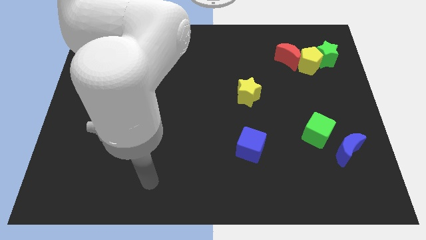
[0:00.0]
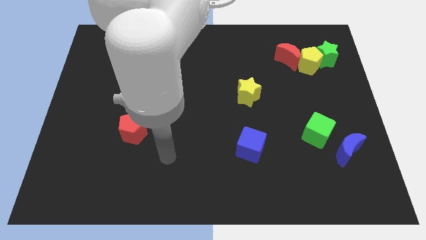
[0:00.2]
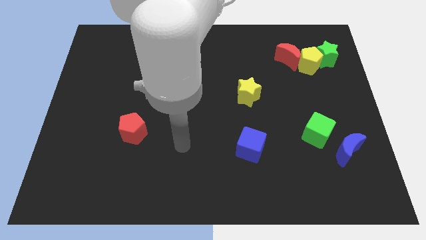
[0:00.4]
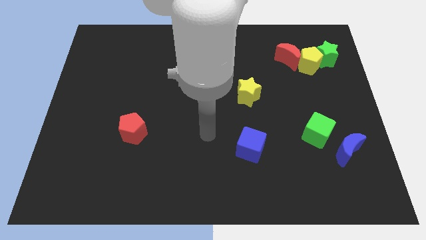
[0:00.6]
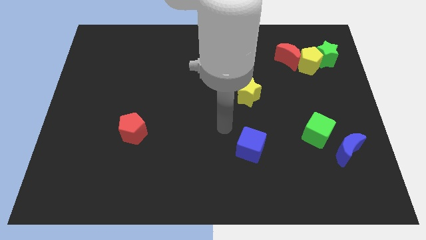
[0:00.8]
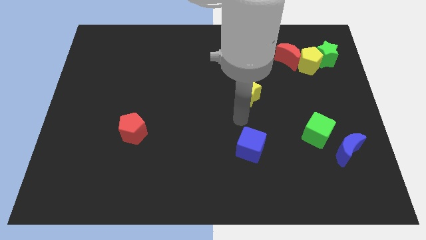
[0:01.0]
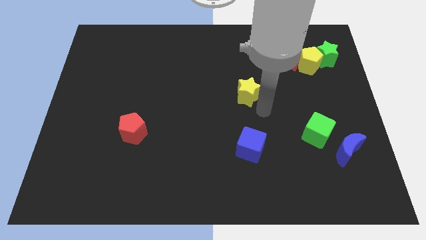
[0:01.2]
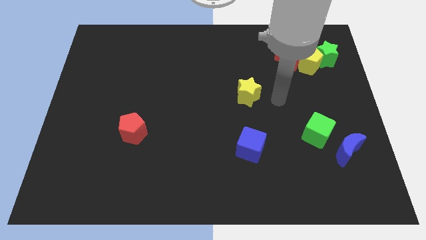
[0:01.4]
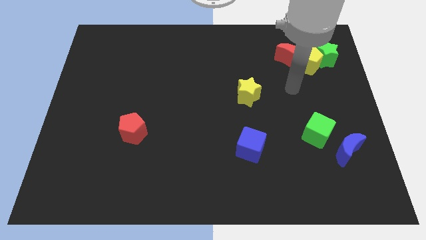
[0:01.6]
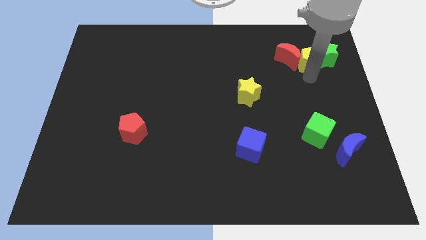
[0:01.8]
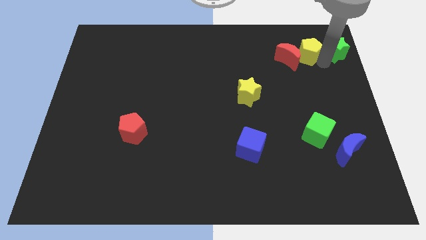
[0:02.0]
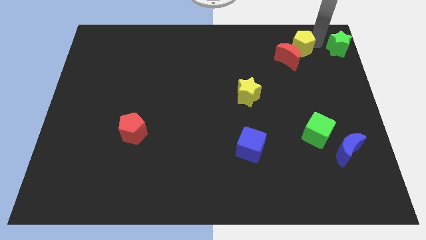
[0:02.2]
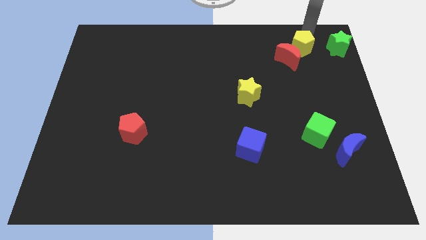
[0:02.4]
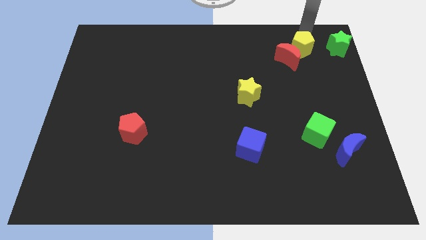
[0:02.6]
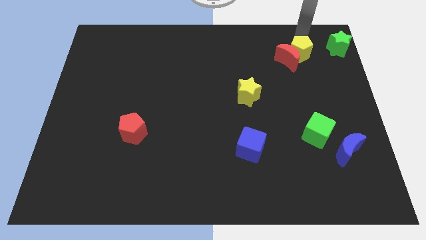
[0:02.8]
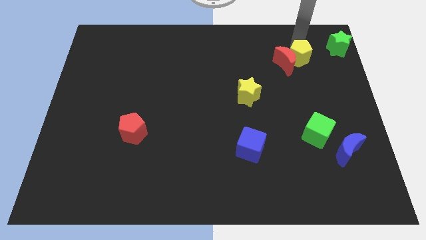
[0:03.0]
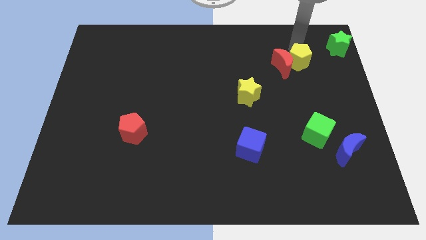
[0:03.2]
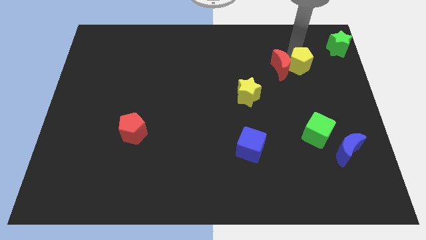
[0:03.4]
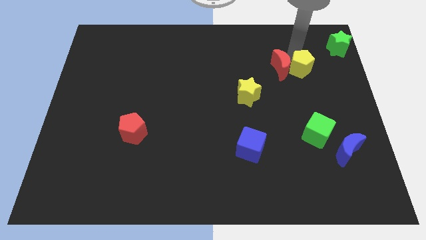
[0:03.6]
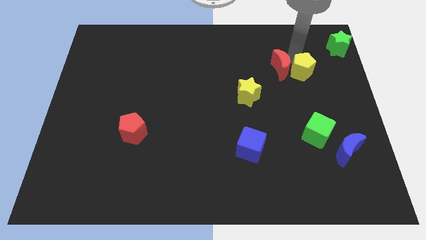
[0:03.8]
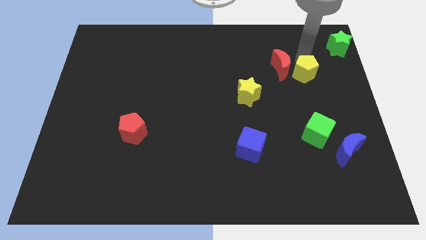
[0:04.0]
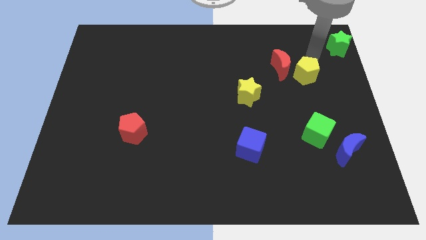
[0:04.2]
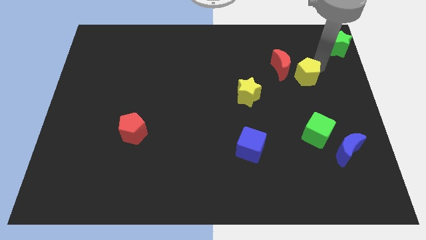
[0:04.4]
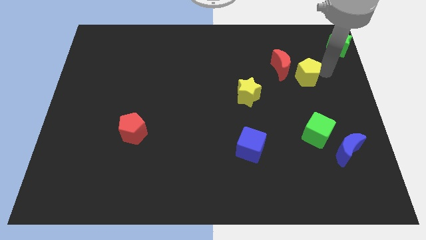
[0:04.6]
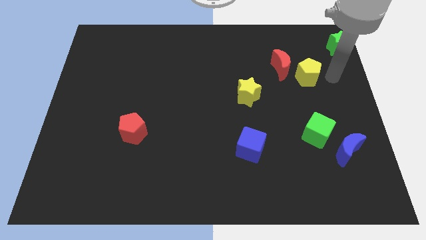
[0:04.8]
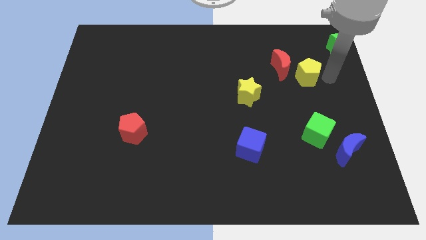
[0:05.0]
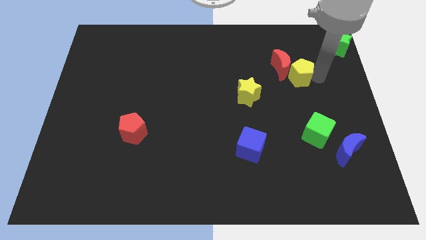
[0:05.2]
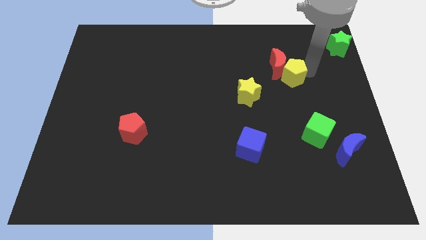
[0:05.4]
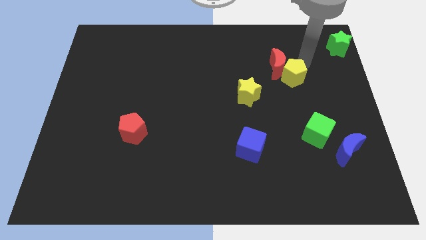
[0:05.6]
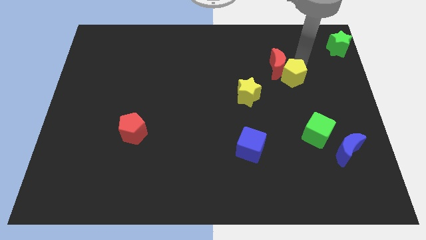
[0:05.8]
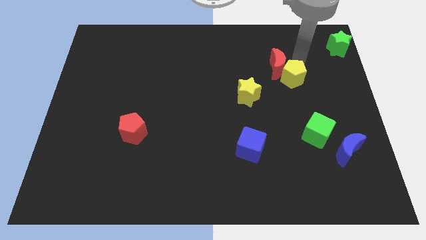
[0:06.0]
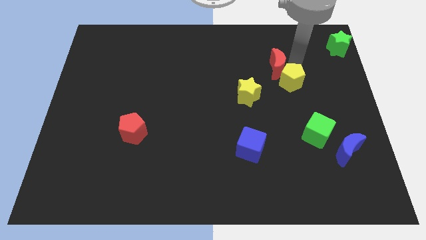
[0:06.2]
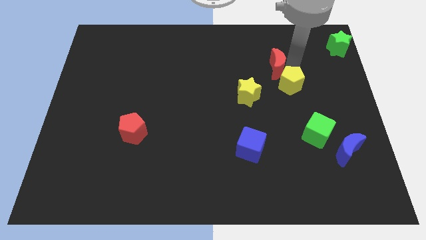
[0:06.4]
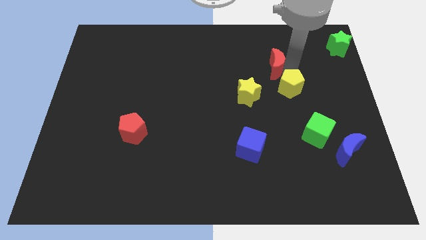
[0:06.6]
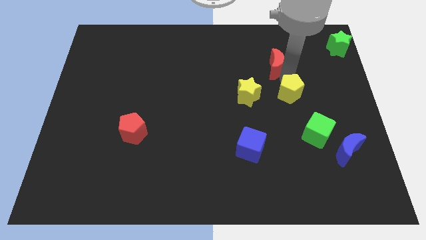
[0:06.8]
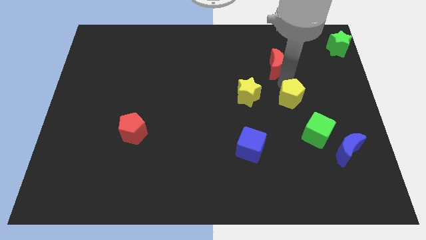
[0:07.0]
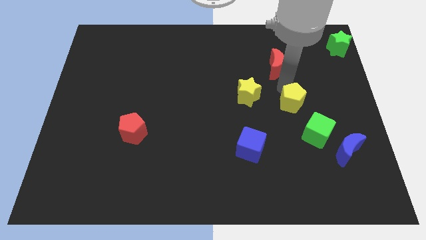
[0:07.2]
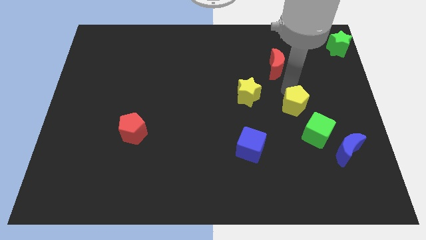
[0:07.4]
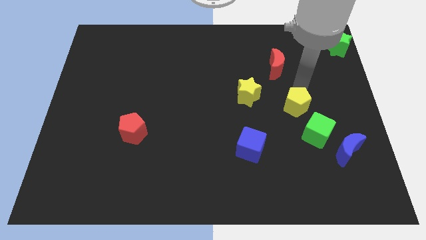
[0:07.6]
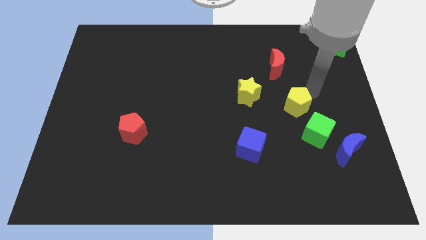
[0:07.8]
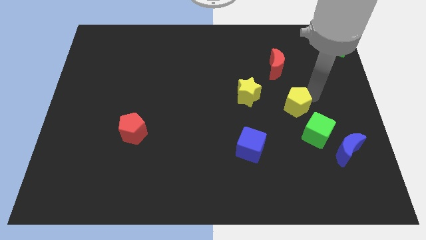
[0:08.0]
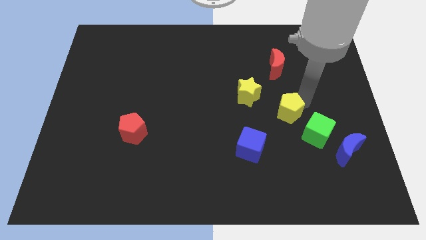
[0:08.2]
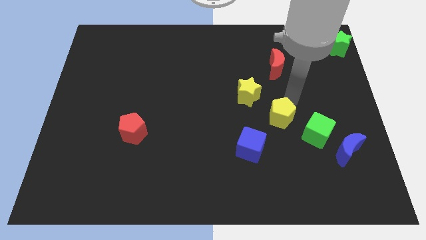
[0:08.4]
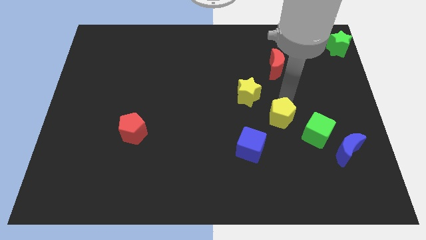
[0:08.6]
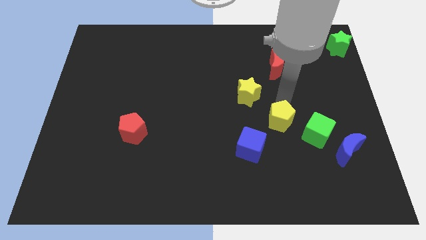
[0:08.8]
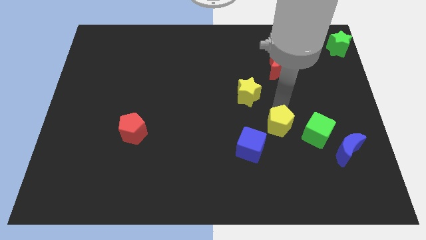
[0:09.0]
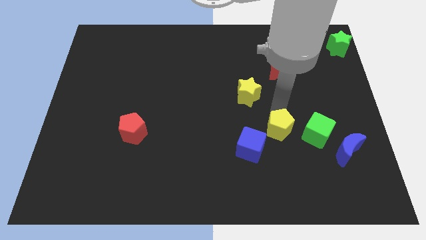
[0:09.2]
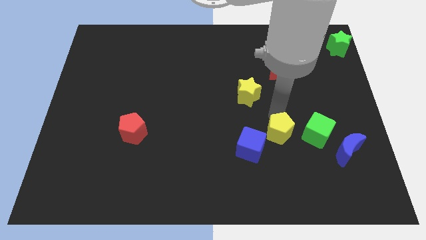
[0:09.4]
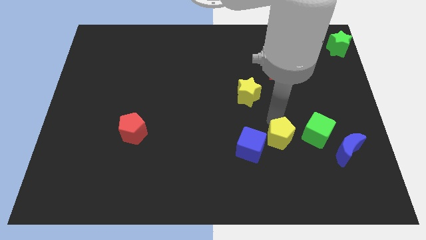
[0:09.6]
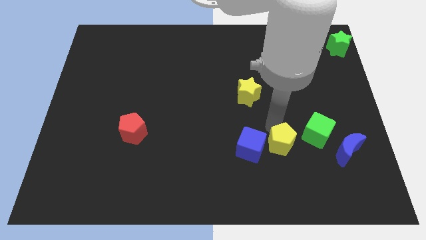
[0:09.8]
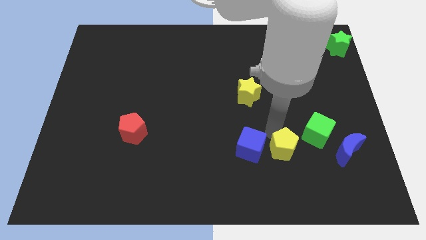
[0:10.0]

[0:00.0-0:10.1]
move the yellow pentagon diagonally down and to the right of the blue cube

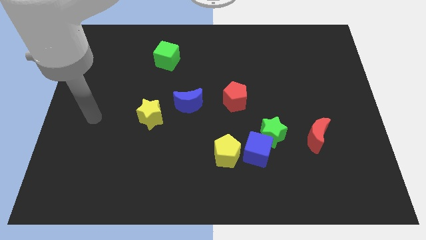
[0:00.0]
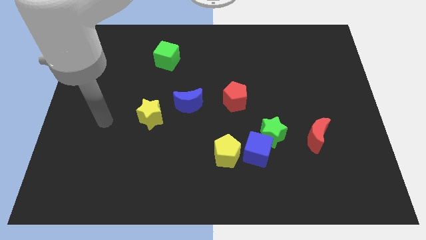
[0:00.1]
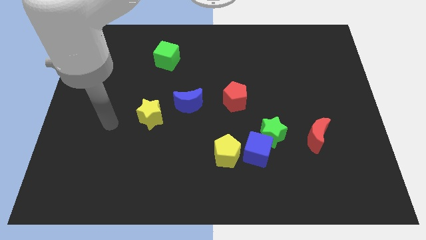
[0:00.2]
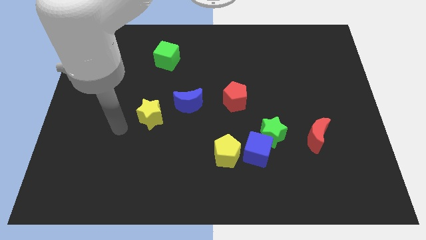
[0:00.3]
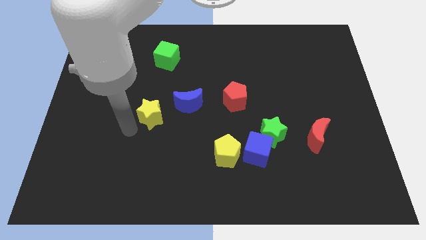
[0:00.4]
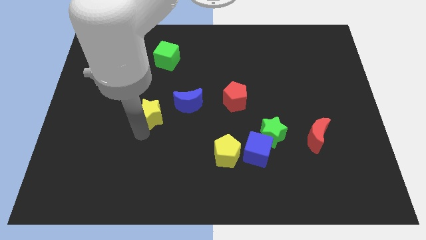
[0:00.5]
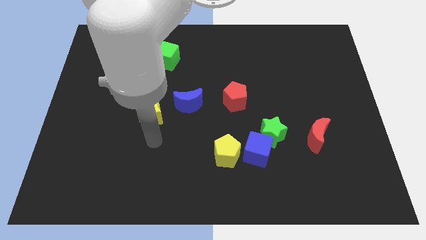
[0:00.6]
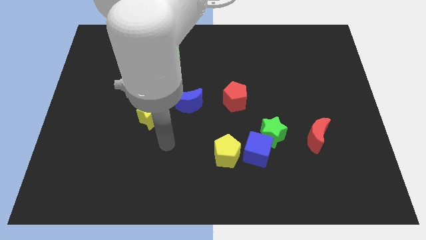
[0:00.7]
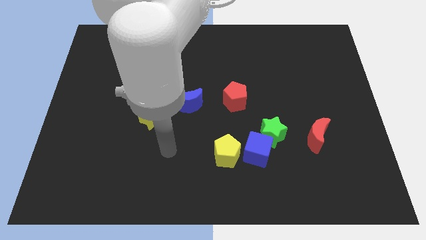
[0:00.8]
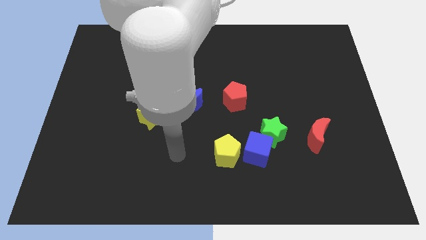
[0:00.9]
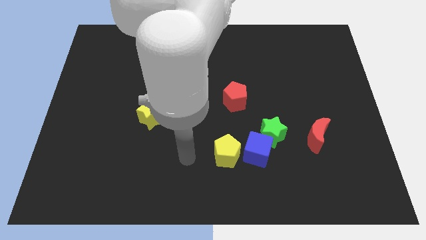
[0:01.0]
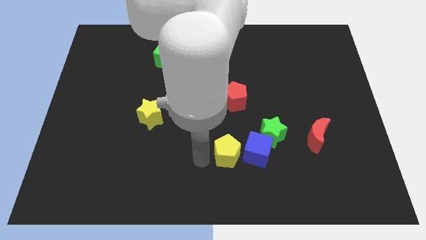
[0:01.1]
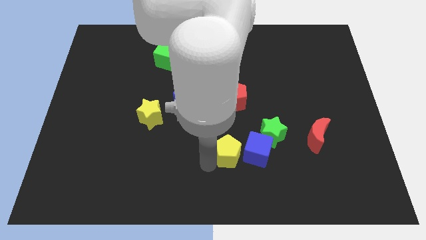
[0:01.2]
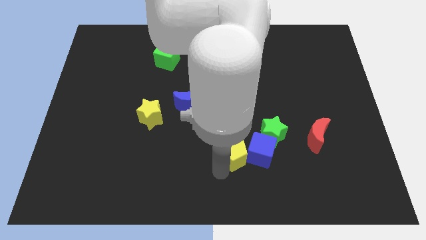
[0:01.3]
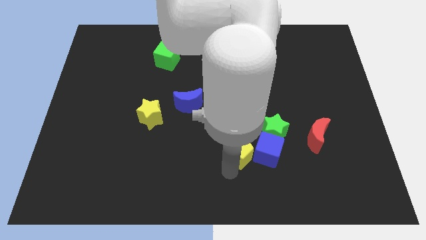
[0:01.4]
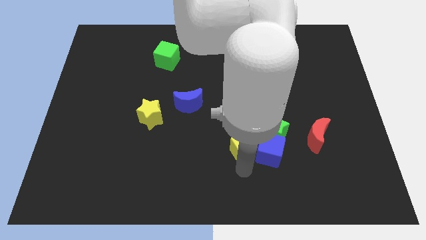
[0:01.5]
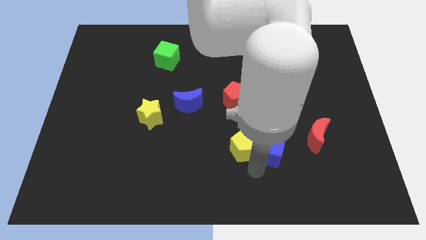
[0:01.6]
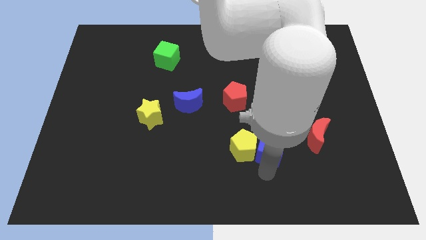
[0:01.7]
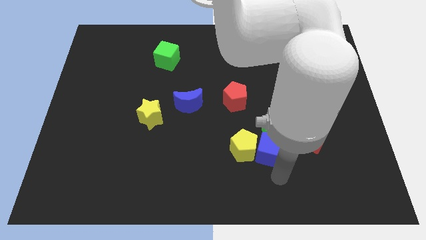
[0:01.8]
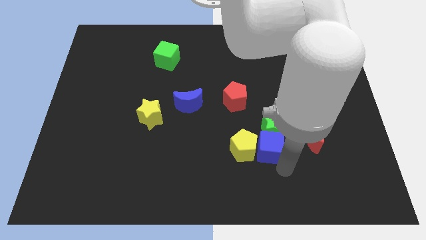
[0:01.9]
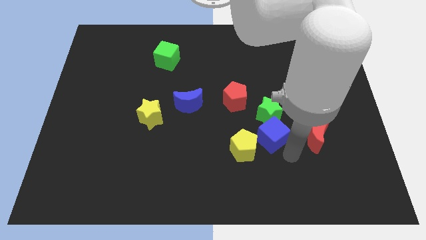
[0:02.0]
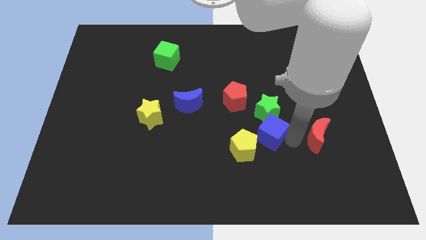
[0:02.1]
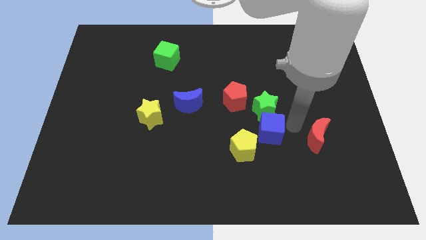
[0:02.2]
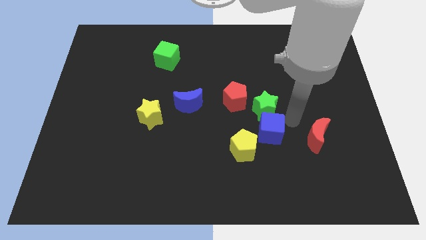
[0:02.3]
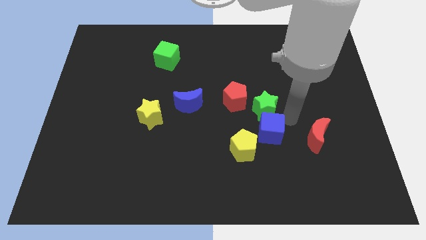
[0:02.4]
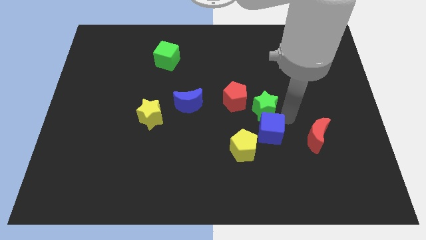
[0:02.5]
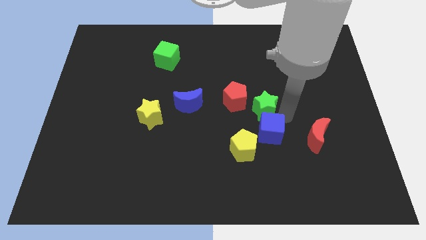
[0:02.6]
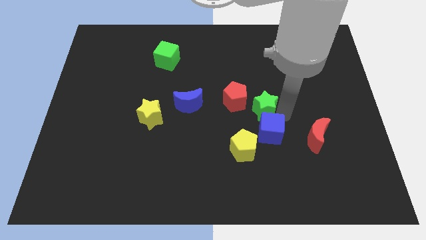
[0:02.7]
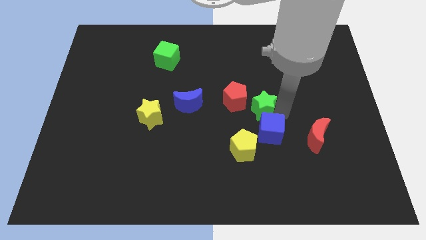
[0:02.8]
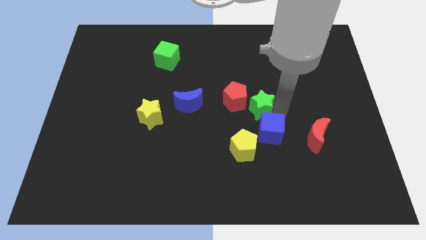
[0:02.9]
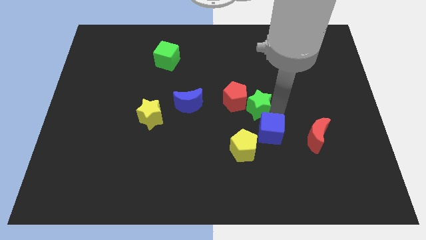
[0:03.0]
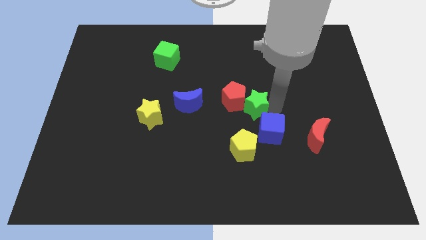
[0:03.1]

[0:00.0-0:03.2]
slide the green star to the right side of the blue moon
